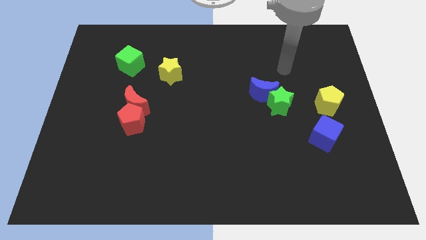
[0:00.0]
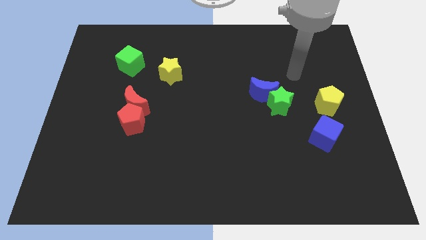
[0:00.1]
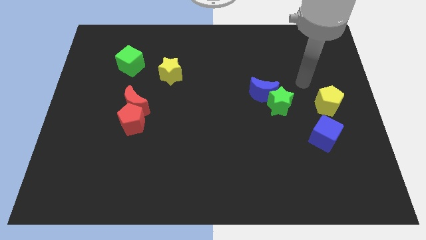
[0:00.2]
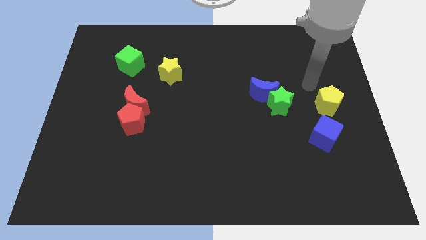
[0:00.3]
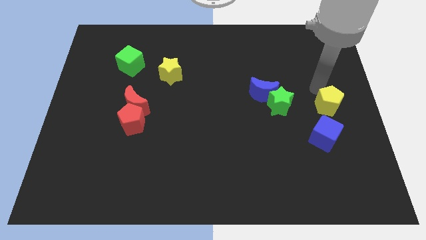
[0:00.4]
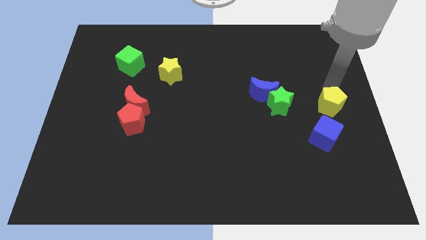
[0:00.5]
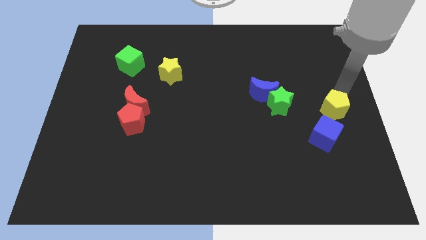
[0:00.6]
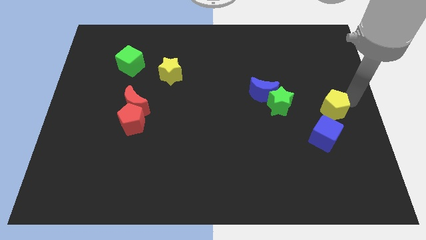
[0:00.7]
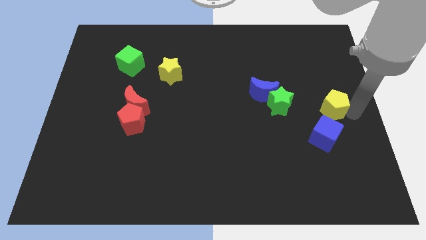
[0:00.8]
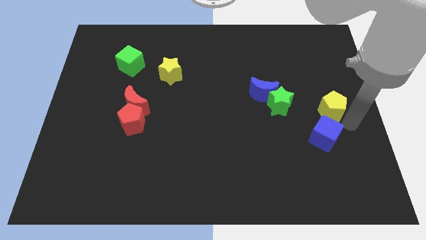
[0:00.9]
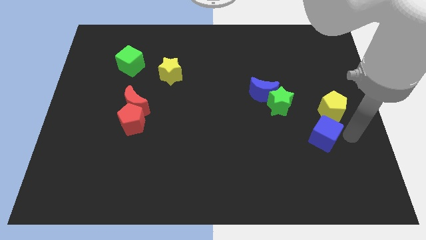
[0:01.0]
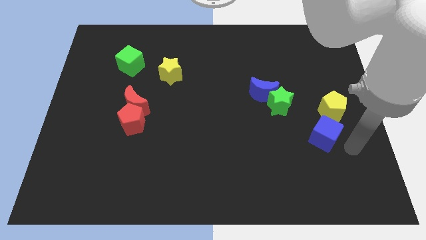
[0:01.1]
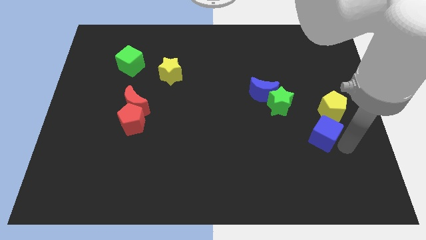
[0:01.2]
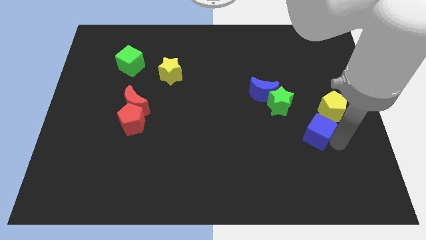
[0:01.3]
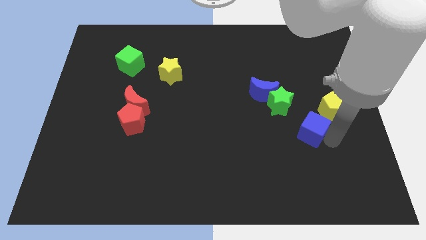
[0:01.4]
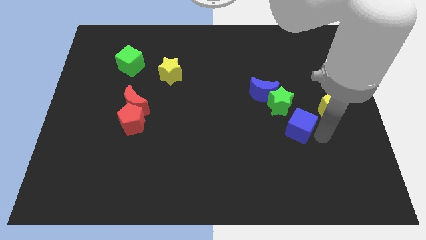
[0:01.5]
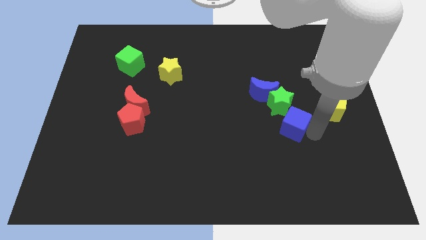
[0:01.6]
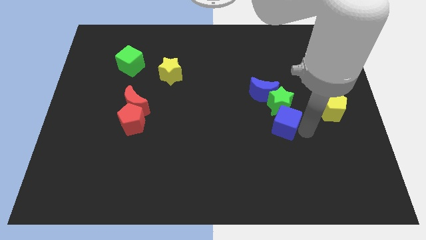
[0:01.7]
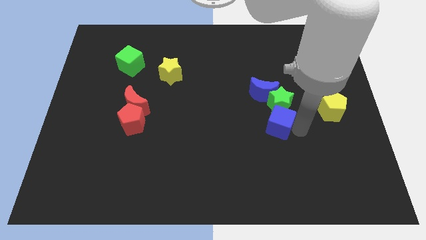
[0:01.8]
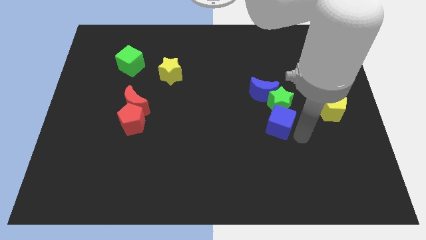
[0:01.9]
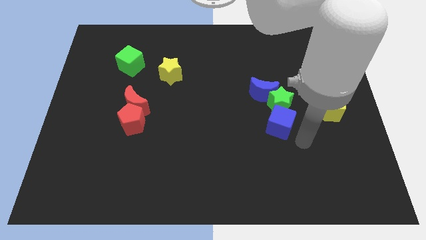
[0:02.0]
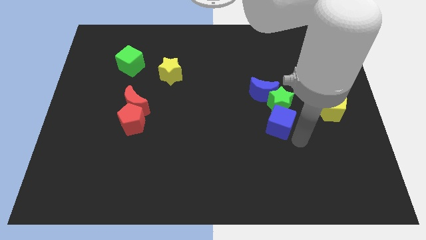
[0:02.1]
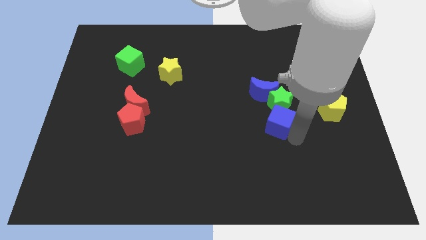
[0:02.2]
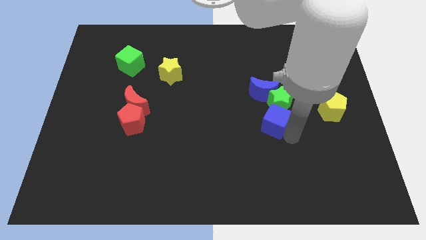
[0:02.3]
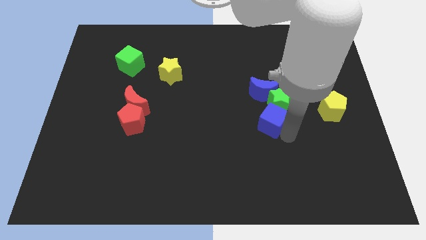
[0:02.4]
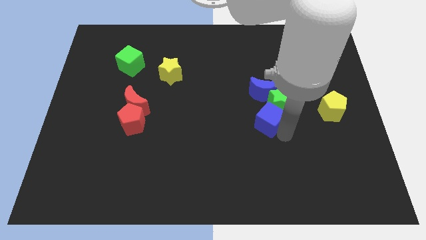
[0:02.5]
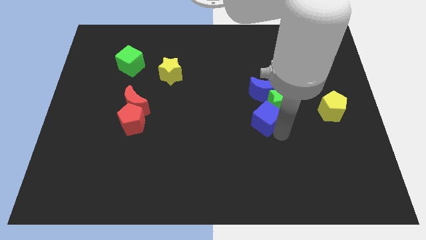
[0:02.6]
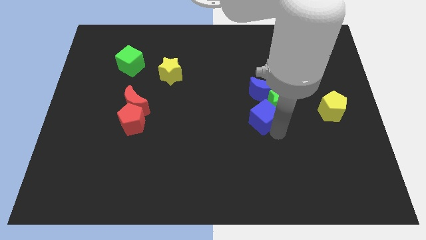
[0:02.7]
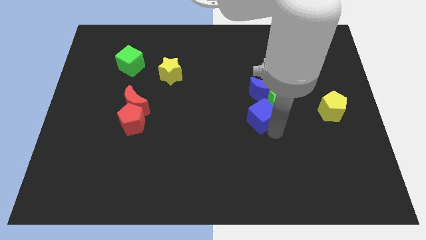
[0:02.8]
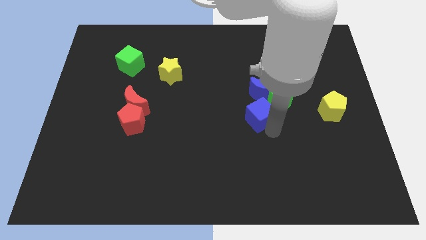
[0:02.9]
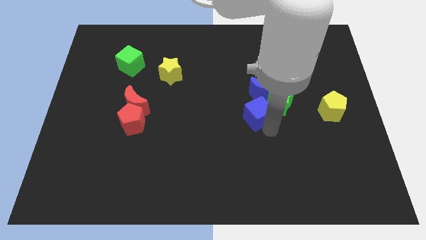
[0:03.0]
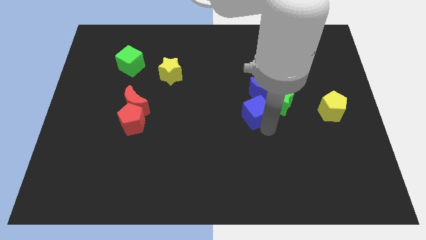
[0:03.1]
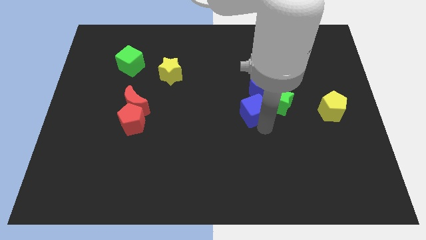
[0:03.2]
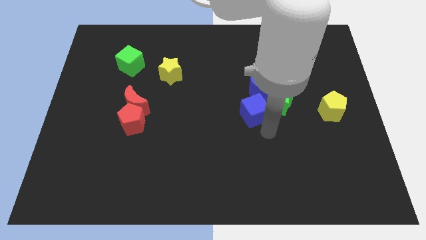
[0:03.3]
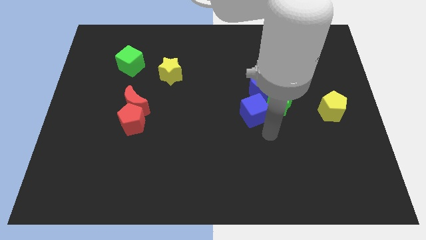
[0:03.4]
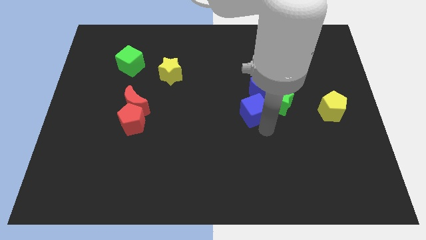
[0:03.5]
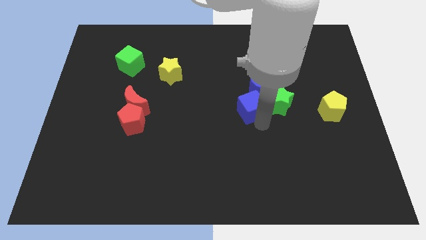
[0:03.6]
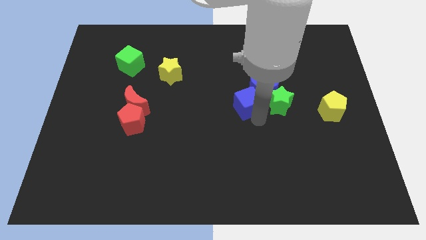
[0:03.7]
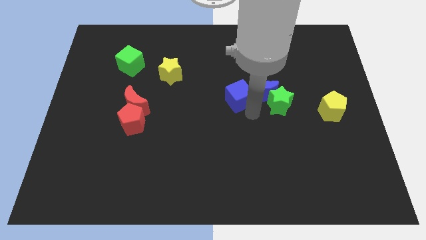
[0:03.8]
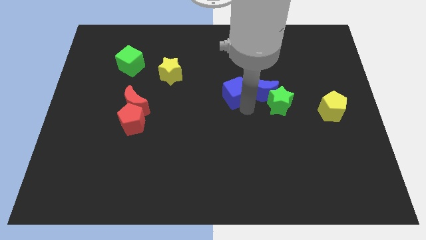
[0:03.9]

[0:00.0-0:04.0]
move the blue cube up and to the left diagonally

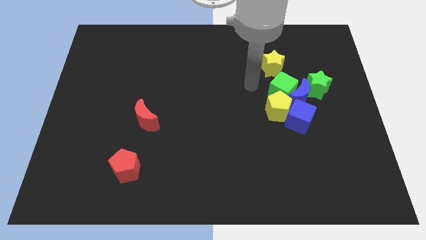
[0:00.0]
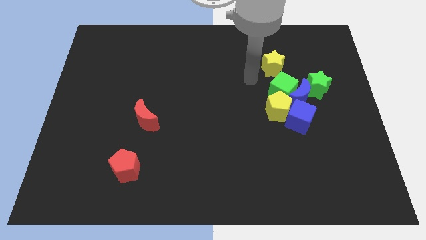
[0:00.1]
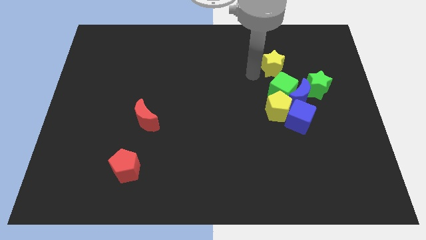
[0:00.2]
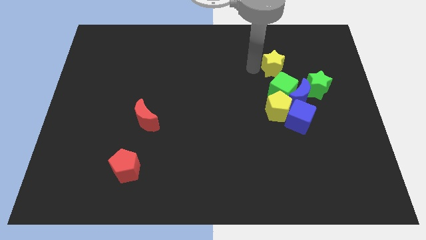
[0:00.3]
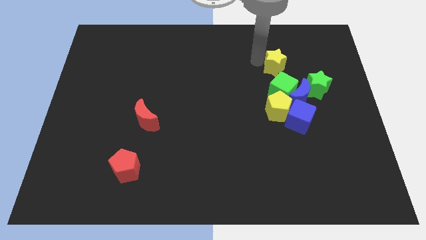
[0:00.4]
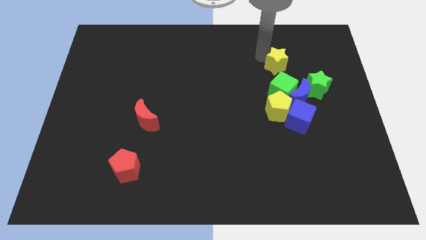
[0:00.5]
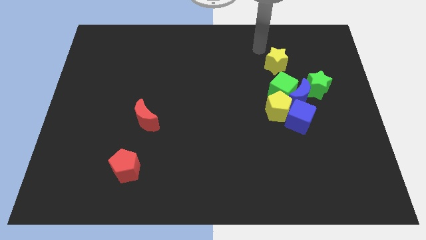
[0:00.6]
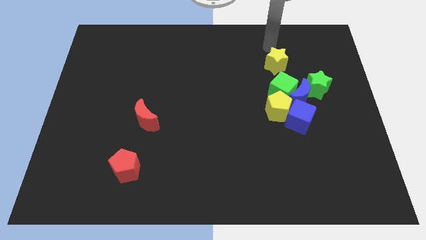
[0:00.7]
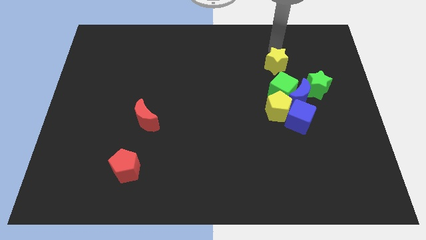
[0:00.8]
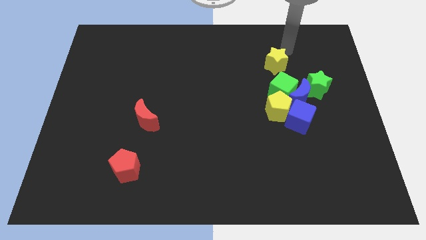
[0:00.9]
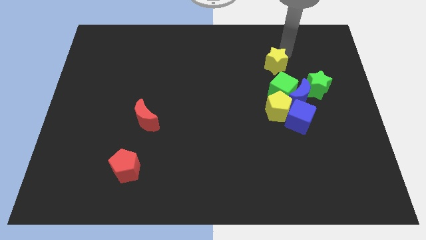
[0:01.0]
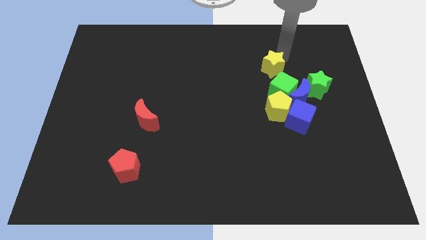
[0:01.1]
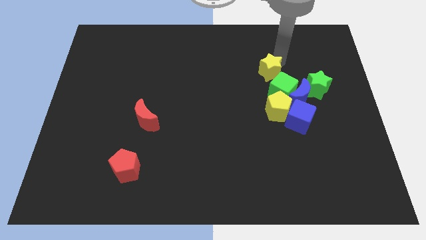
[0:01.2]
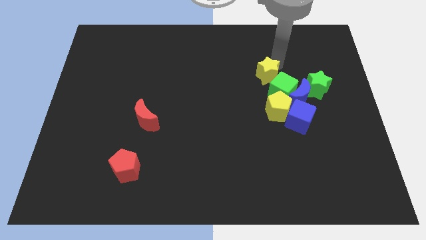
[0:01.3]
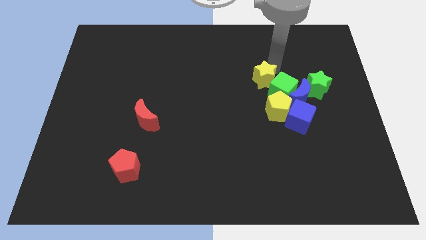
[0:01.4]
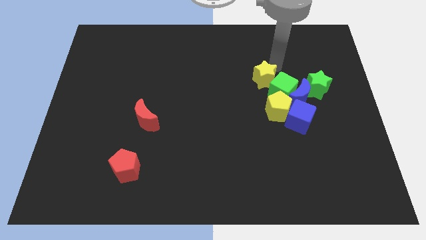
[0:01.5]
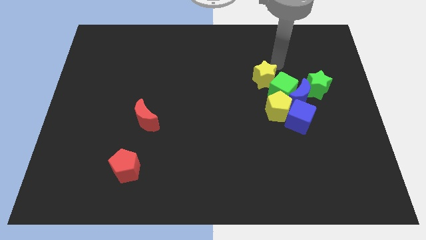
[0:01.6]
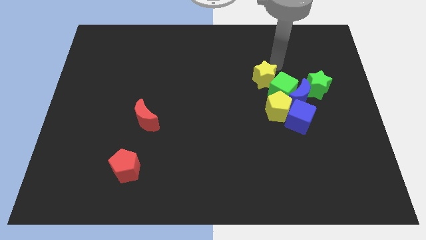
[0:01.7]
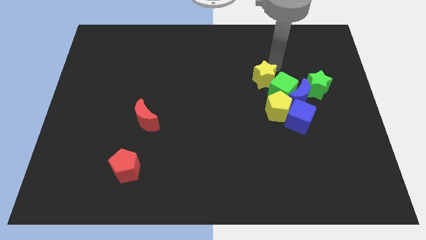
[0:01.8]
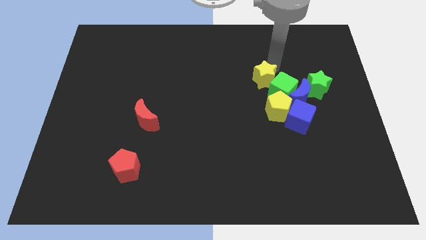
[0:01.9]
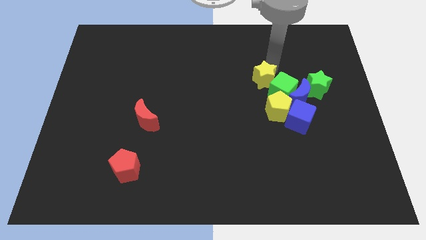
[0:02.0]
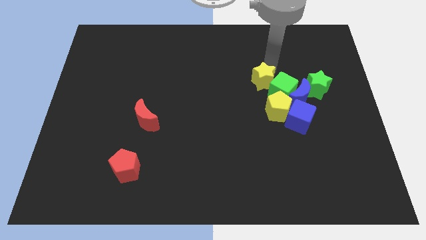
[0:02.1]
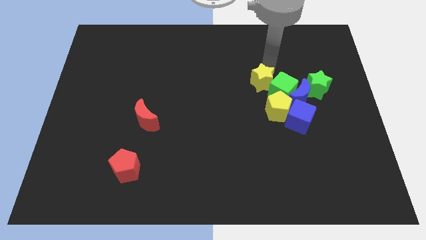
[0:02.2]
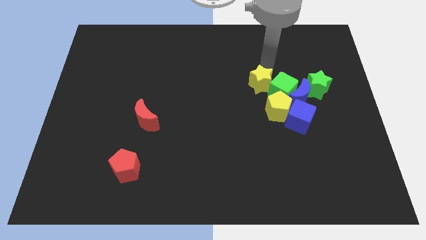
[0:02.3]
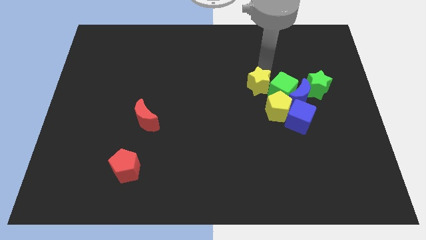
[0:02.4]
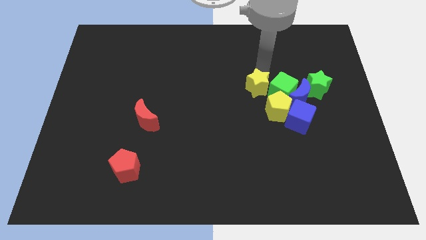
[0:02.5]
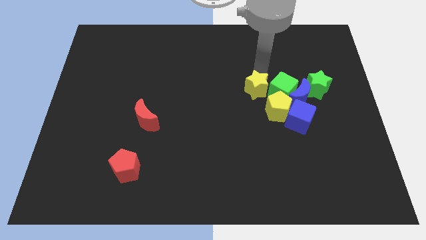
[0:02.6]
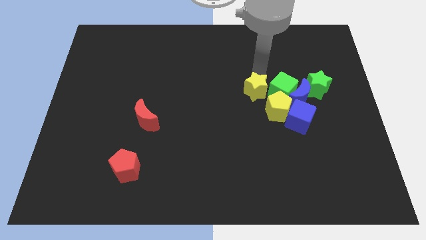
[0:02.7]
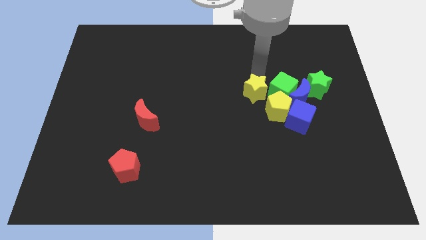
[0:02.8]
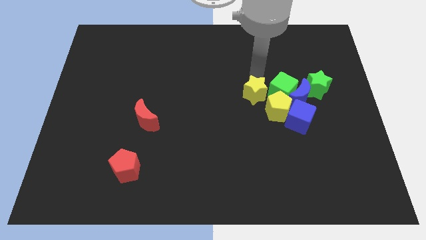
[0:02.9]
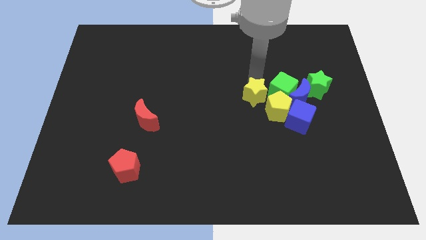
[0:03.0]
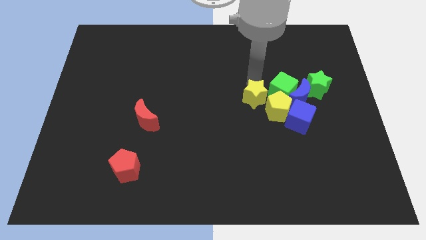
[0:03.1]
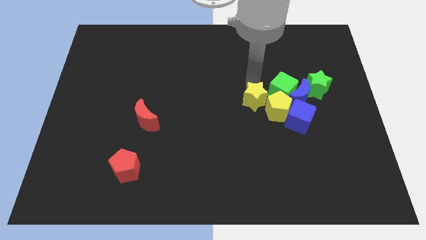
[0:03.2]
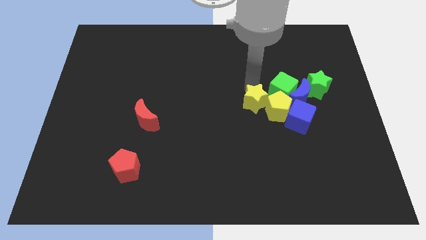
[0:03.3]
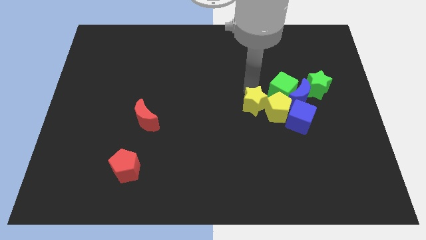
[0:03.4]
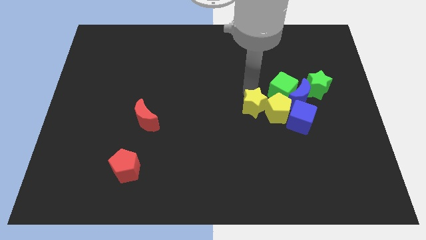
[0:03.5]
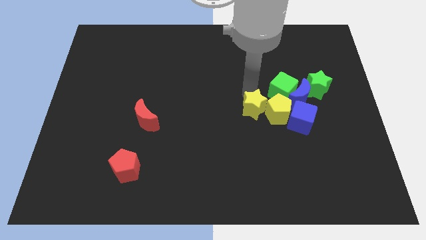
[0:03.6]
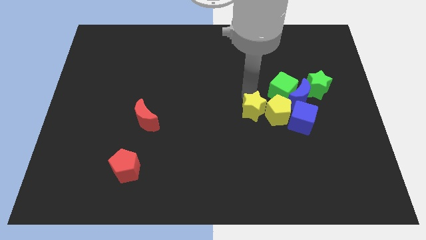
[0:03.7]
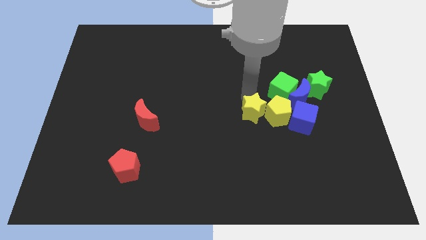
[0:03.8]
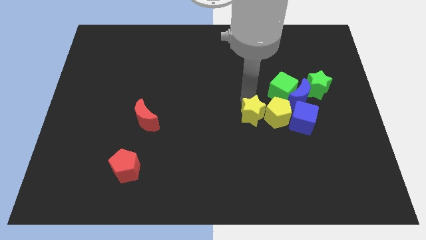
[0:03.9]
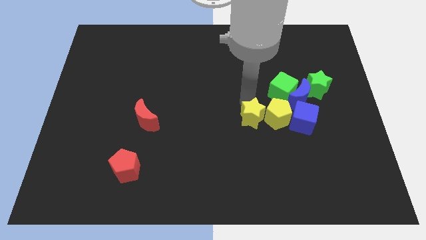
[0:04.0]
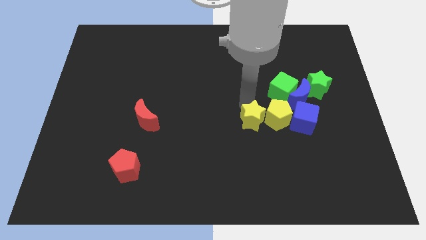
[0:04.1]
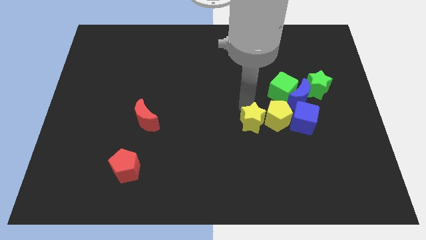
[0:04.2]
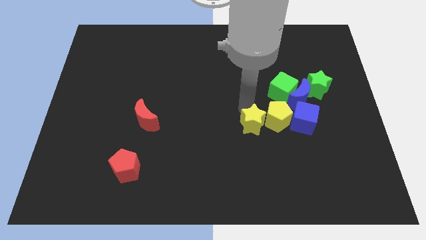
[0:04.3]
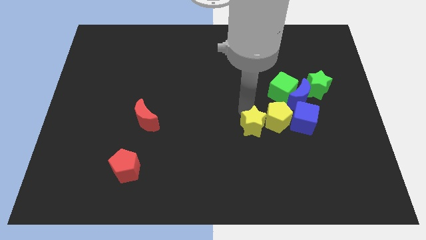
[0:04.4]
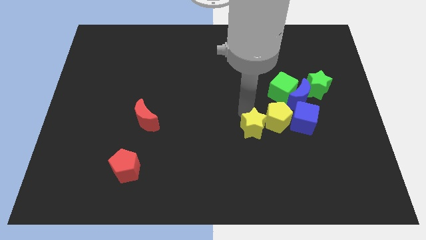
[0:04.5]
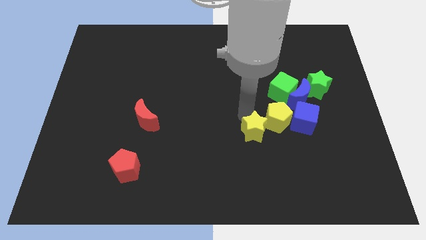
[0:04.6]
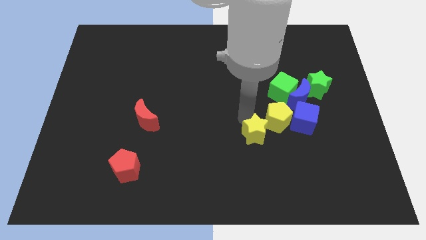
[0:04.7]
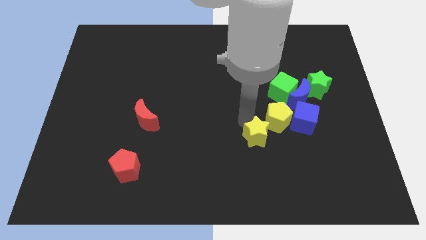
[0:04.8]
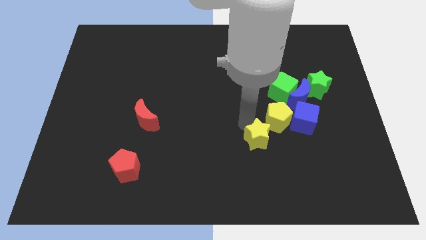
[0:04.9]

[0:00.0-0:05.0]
slide the yellow star downwards
